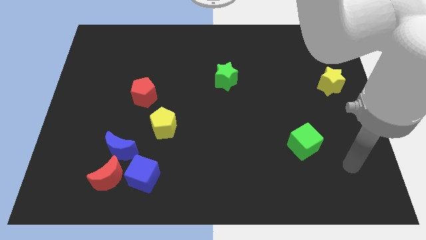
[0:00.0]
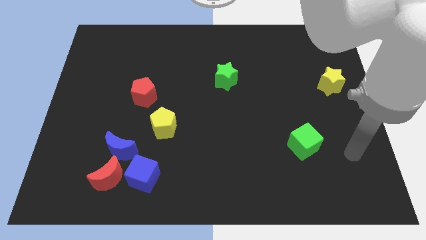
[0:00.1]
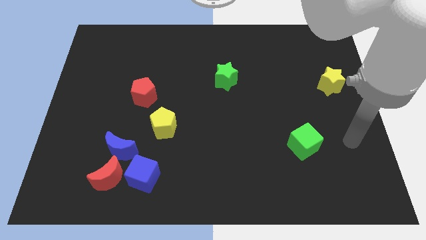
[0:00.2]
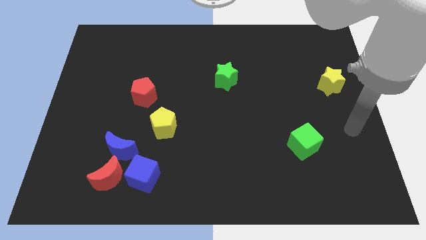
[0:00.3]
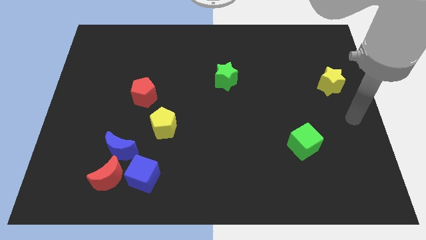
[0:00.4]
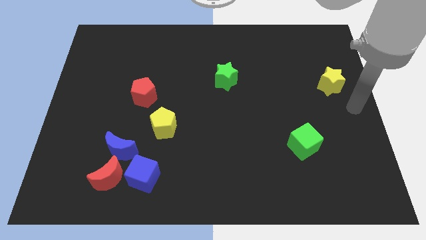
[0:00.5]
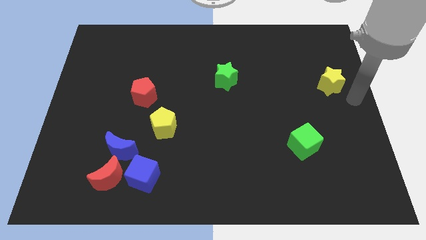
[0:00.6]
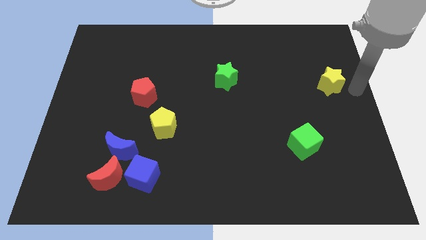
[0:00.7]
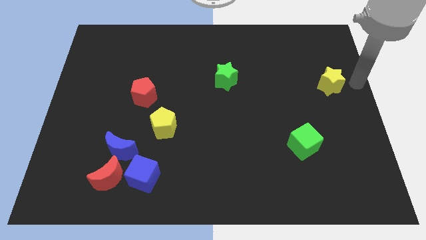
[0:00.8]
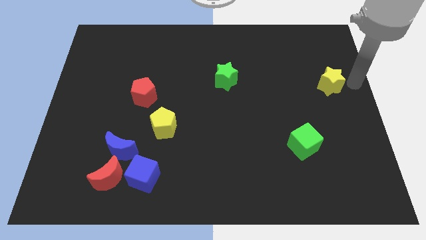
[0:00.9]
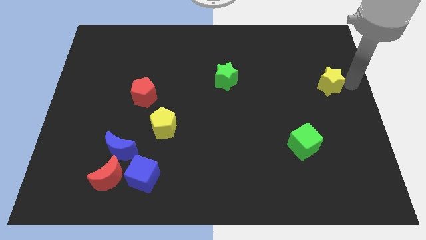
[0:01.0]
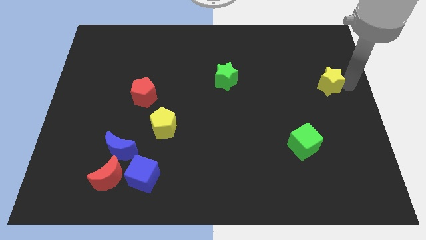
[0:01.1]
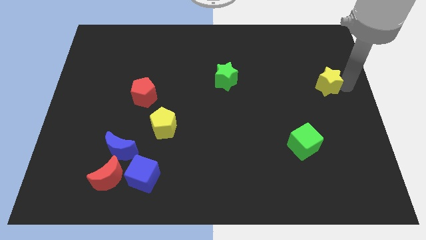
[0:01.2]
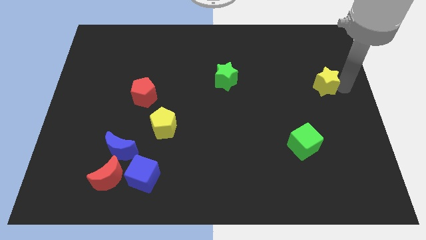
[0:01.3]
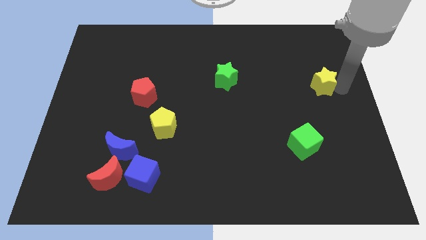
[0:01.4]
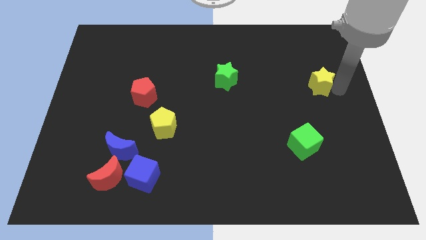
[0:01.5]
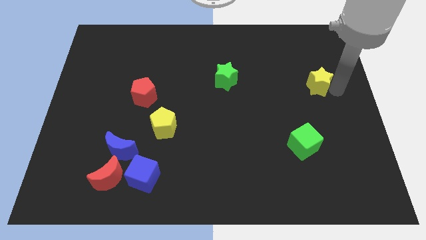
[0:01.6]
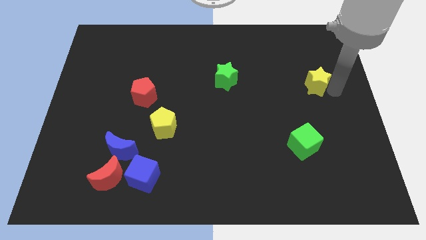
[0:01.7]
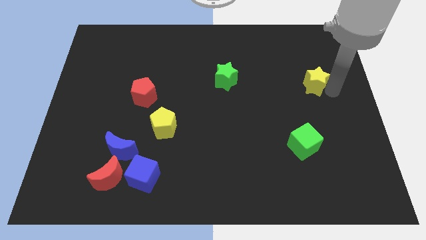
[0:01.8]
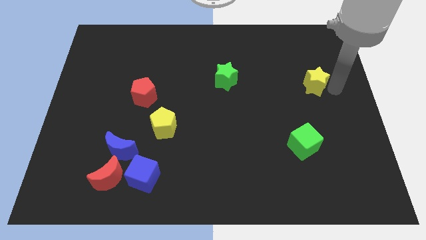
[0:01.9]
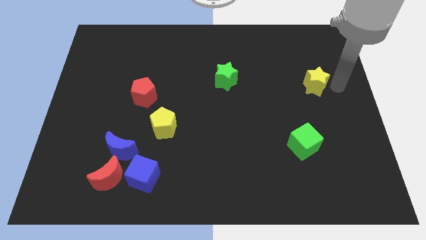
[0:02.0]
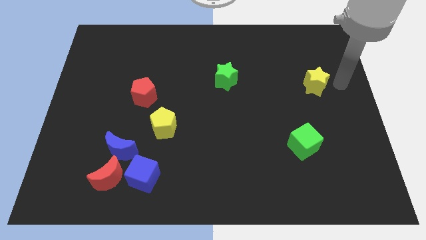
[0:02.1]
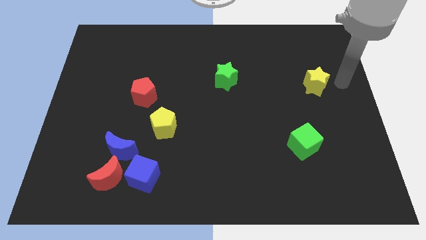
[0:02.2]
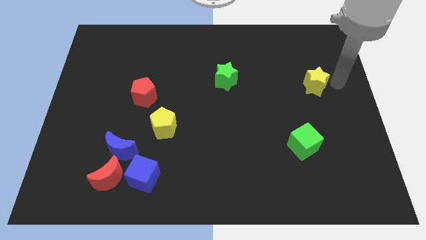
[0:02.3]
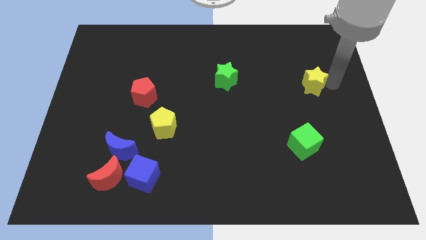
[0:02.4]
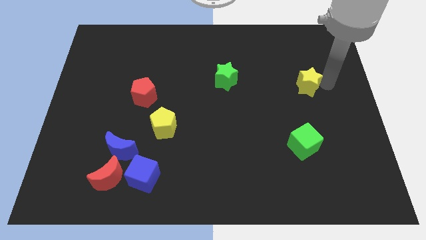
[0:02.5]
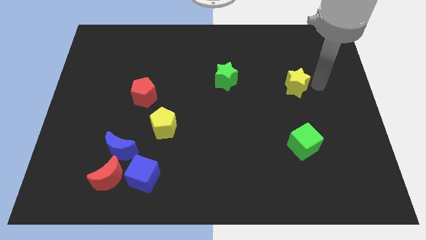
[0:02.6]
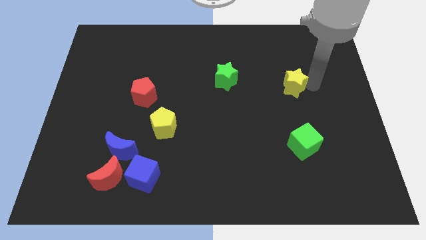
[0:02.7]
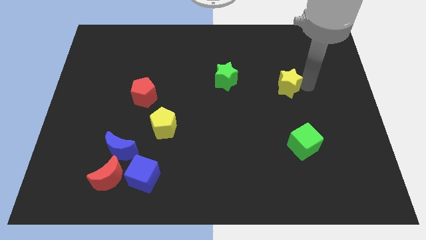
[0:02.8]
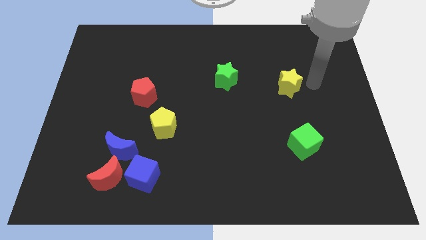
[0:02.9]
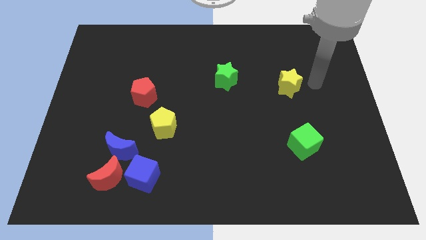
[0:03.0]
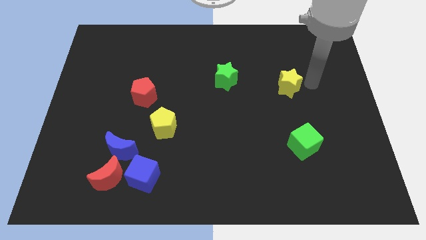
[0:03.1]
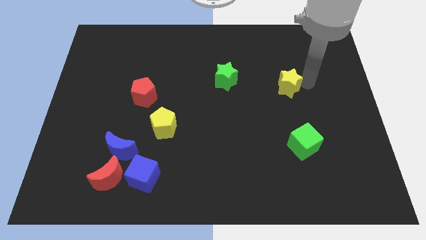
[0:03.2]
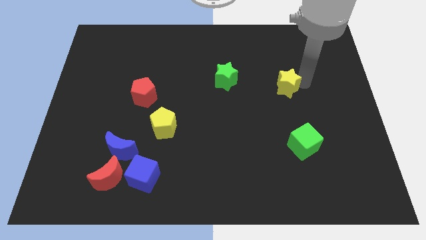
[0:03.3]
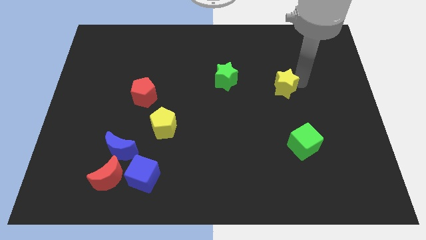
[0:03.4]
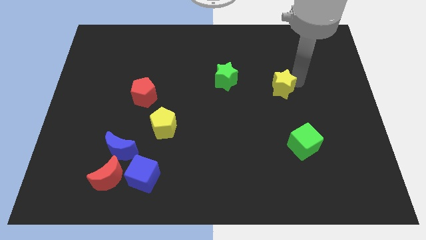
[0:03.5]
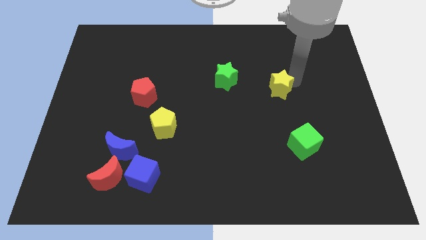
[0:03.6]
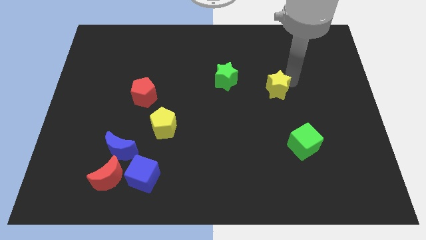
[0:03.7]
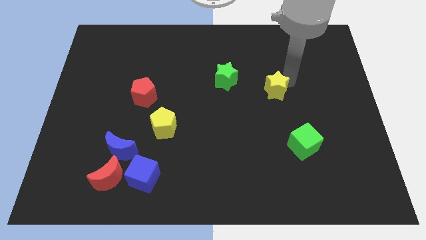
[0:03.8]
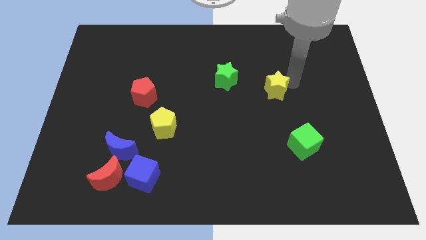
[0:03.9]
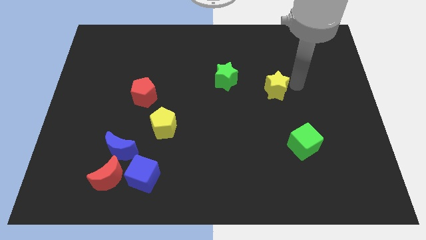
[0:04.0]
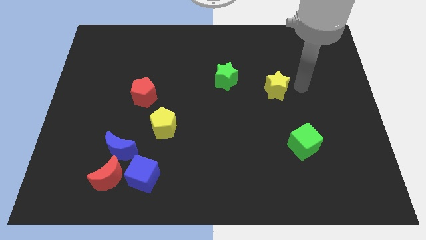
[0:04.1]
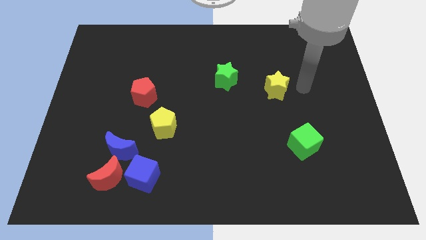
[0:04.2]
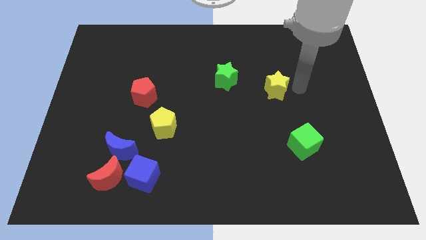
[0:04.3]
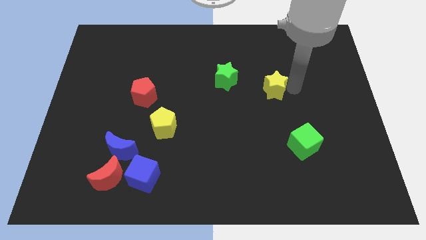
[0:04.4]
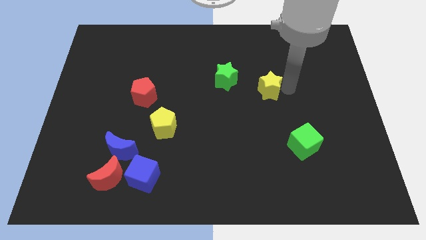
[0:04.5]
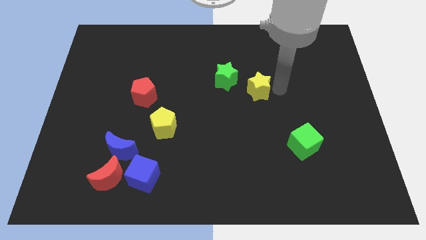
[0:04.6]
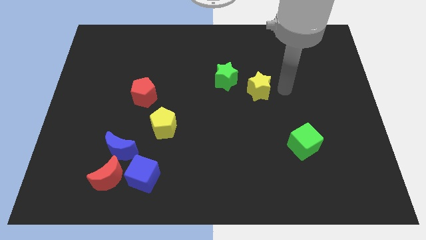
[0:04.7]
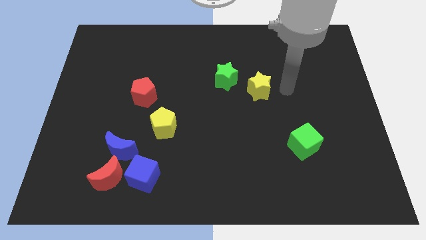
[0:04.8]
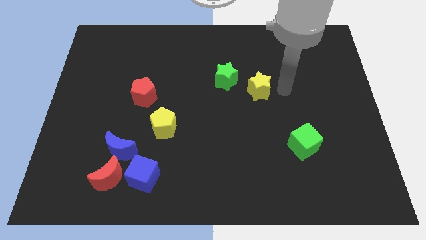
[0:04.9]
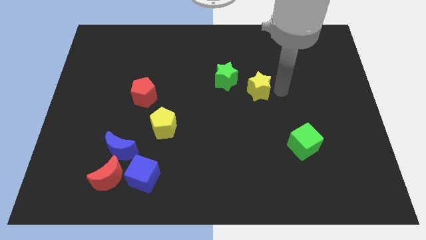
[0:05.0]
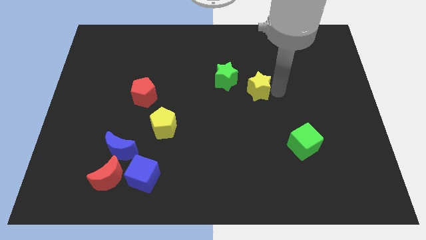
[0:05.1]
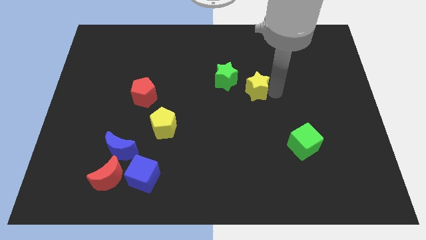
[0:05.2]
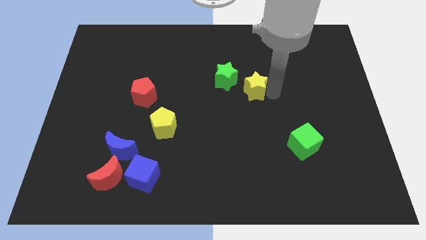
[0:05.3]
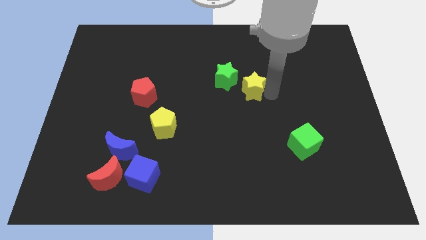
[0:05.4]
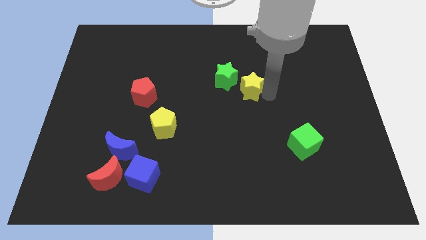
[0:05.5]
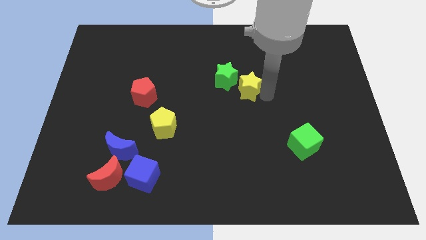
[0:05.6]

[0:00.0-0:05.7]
push the yellow star to the left

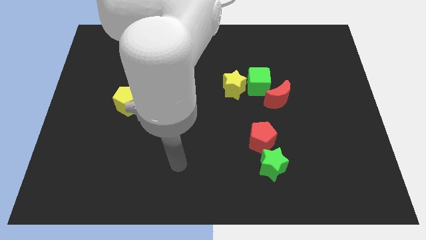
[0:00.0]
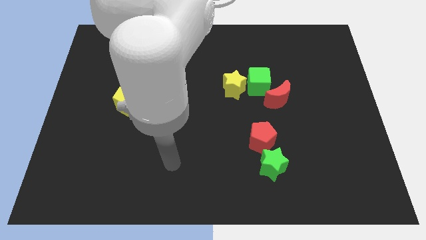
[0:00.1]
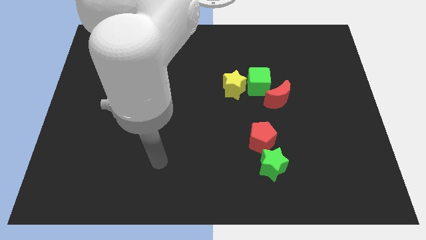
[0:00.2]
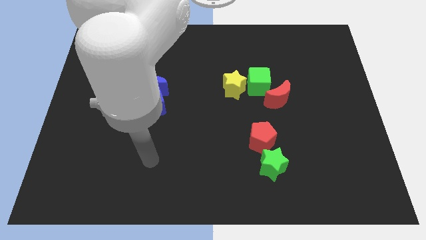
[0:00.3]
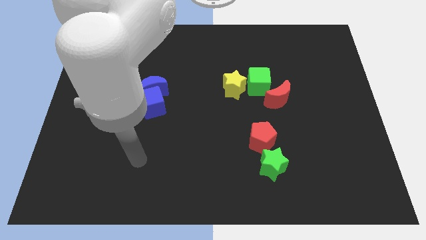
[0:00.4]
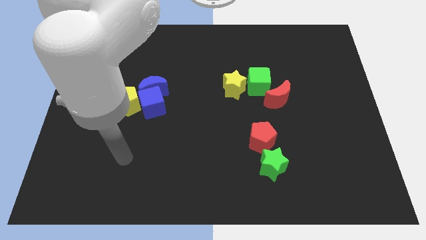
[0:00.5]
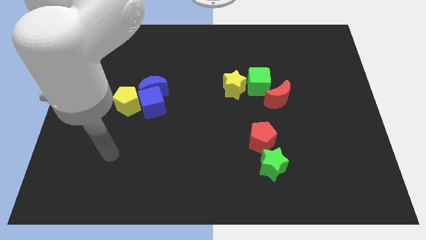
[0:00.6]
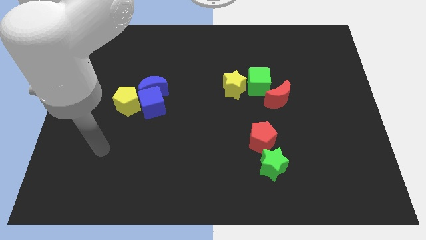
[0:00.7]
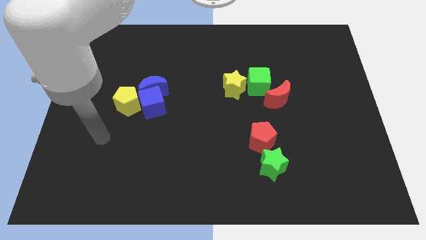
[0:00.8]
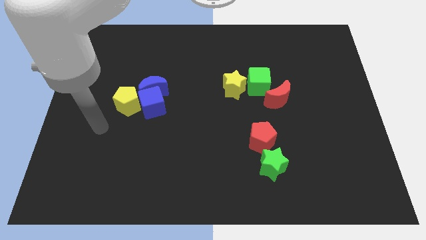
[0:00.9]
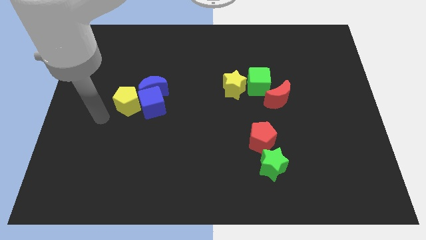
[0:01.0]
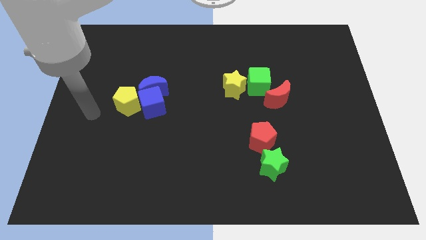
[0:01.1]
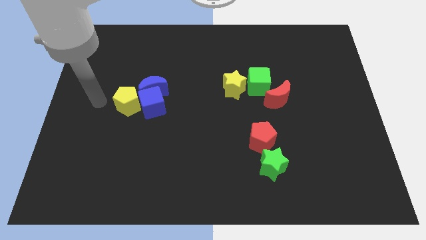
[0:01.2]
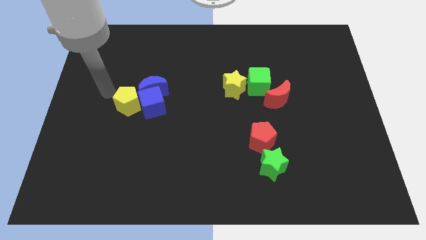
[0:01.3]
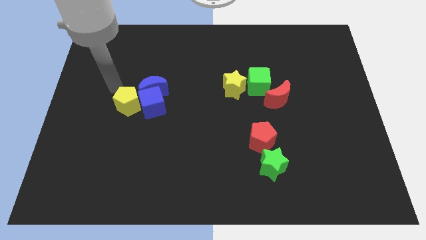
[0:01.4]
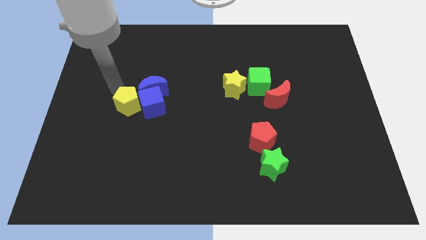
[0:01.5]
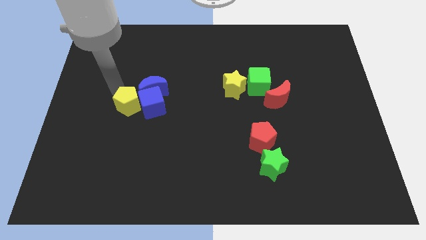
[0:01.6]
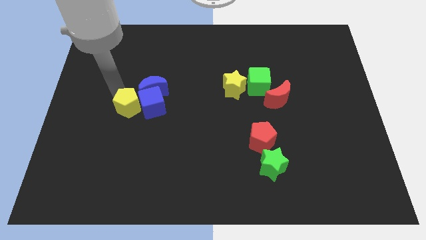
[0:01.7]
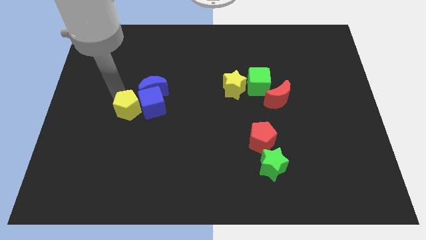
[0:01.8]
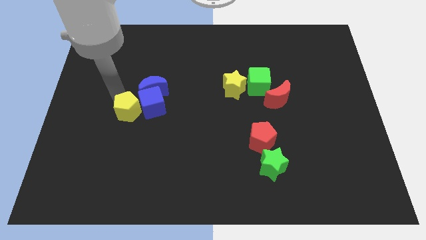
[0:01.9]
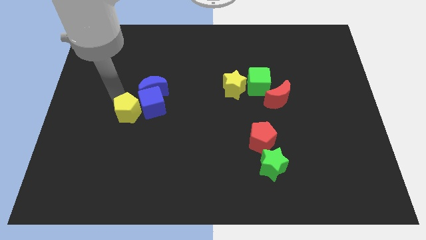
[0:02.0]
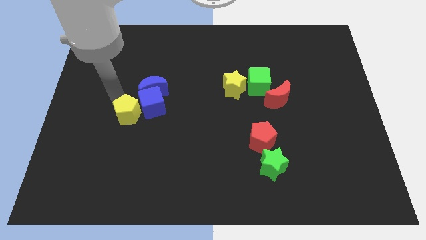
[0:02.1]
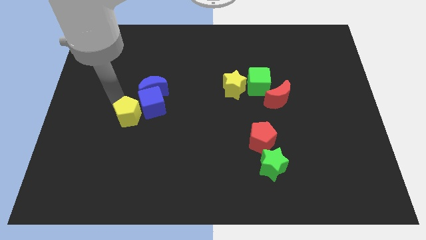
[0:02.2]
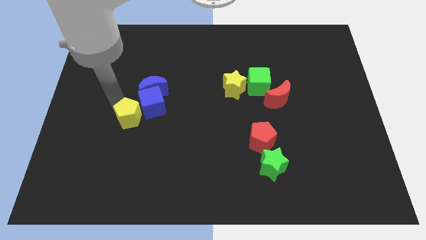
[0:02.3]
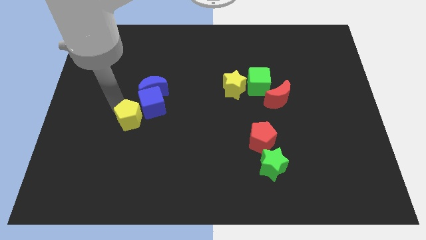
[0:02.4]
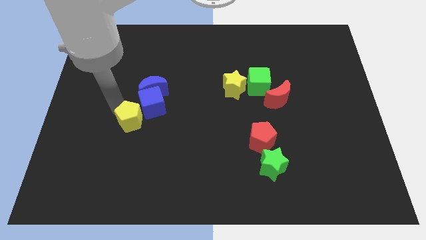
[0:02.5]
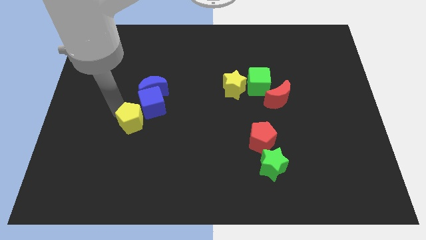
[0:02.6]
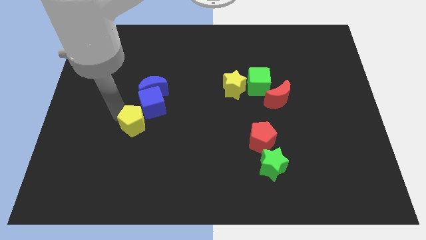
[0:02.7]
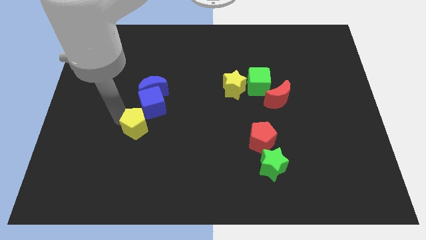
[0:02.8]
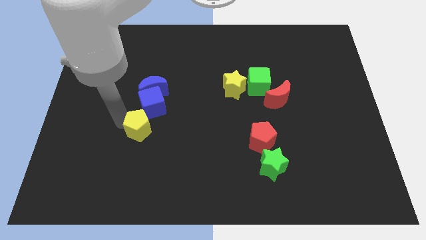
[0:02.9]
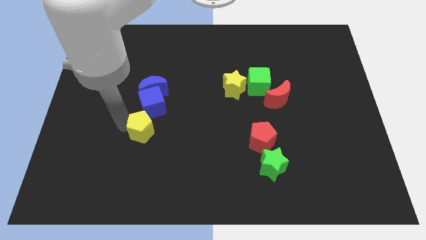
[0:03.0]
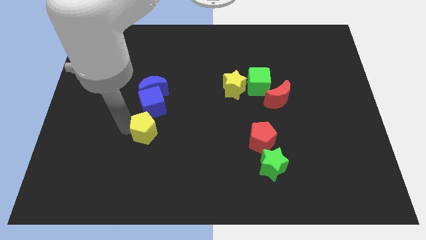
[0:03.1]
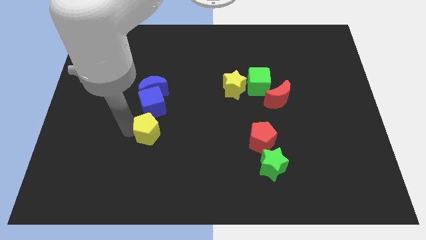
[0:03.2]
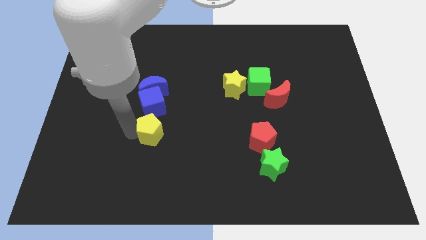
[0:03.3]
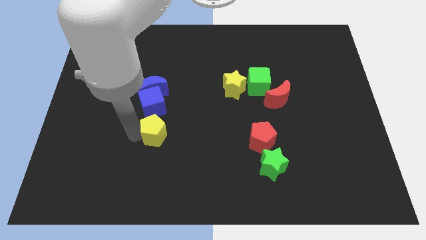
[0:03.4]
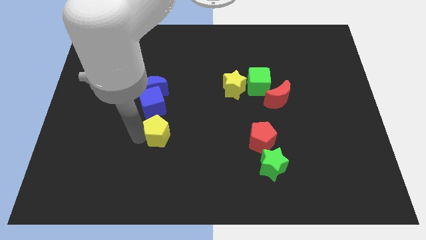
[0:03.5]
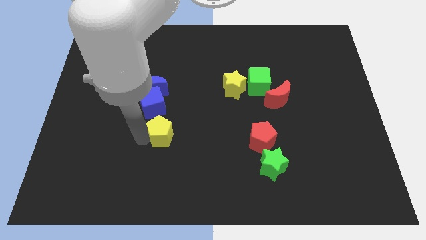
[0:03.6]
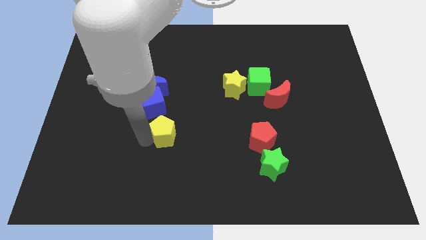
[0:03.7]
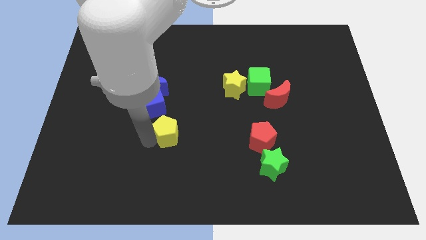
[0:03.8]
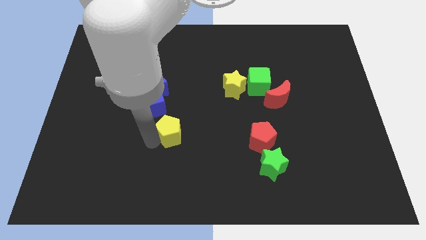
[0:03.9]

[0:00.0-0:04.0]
move the yellow pentagon right a little
